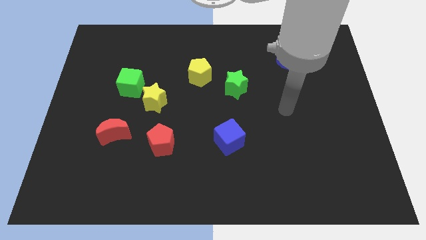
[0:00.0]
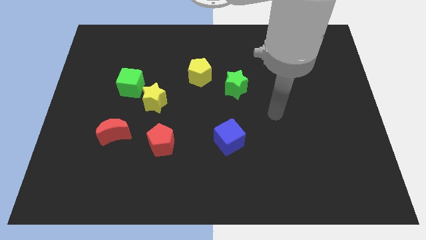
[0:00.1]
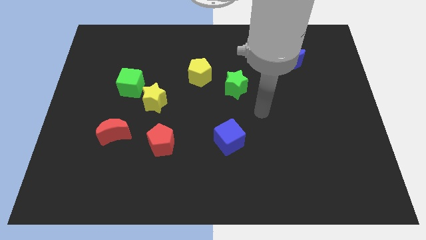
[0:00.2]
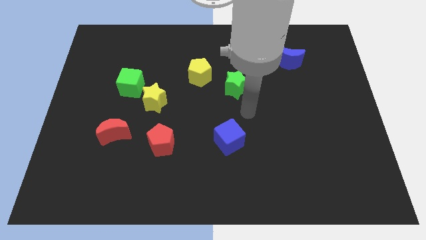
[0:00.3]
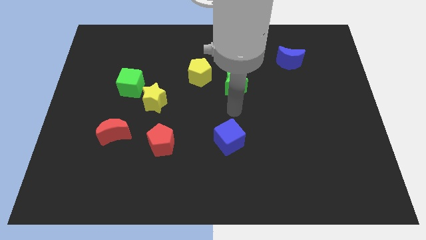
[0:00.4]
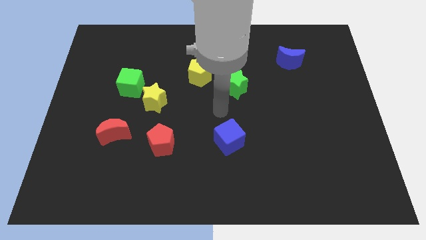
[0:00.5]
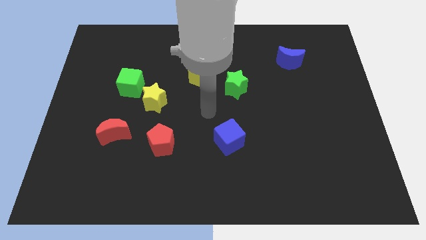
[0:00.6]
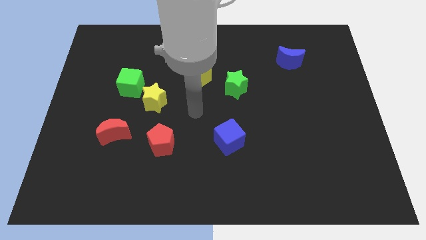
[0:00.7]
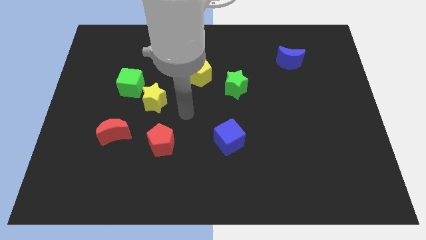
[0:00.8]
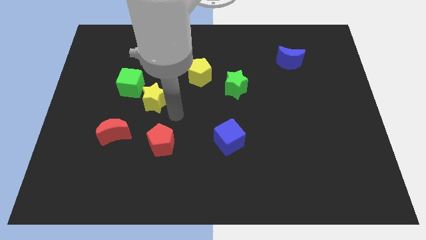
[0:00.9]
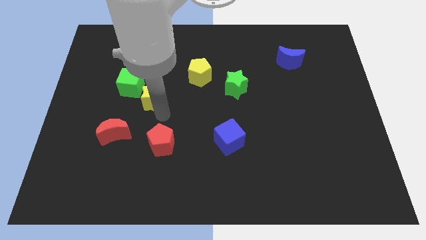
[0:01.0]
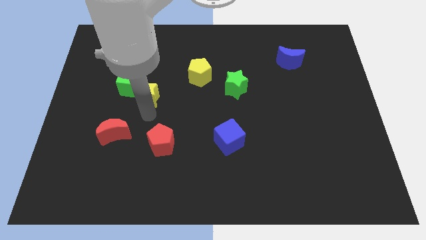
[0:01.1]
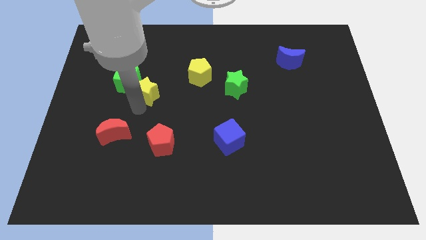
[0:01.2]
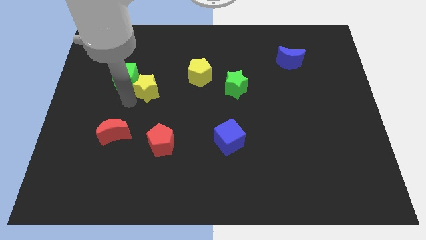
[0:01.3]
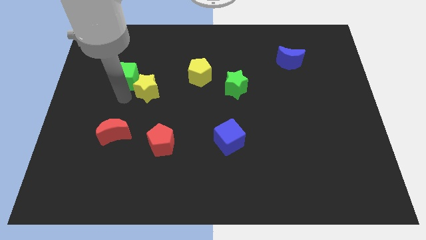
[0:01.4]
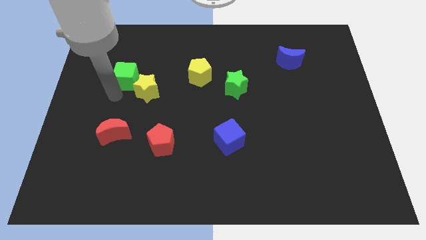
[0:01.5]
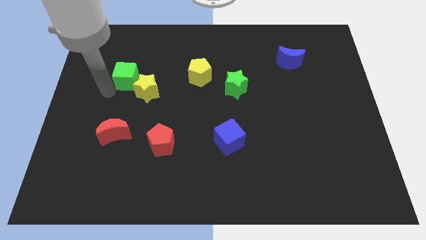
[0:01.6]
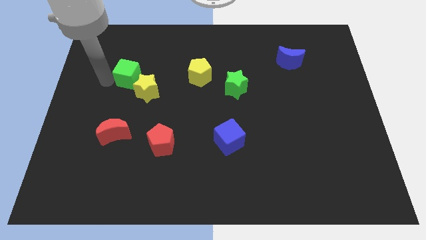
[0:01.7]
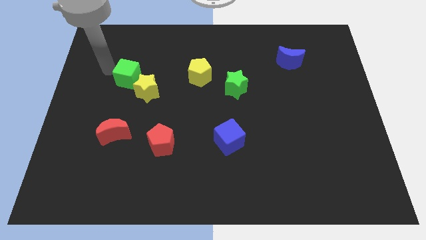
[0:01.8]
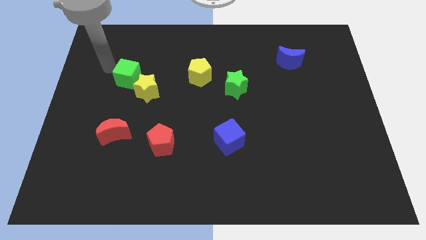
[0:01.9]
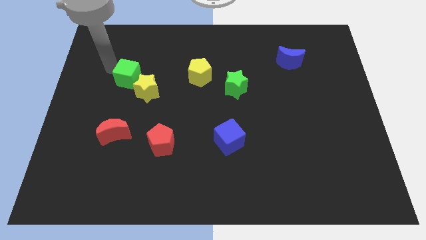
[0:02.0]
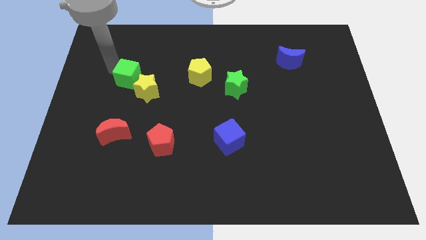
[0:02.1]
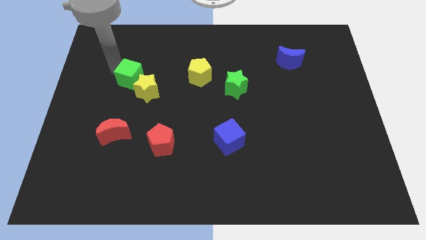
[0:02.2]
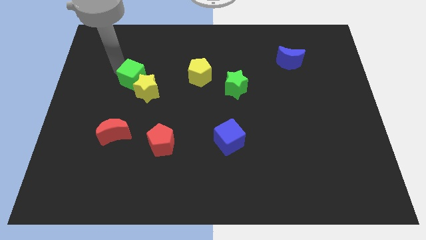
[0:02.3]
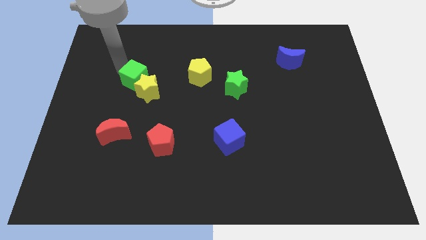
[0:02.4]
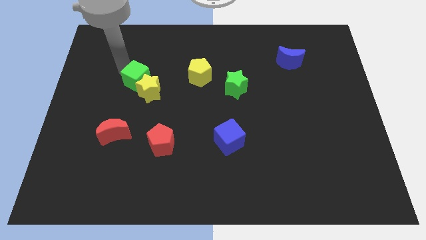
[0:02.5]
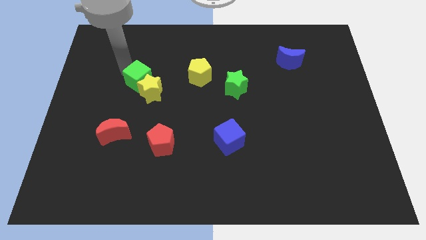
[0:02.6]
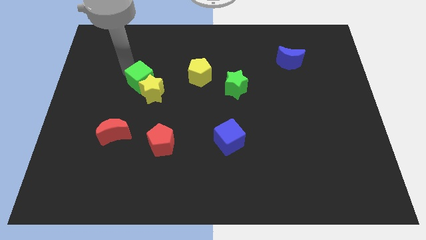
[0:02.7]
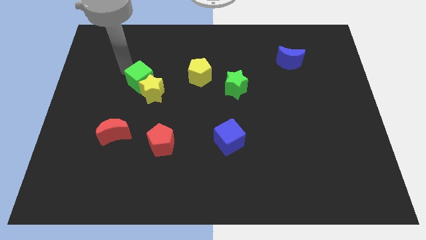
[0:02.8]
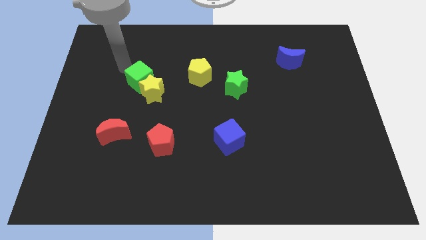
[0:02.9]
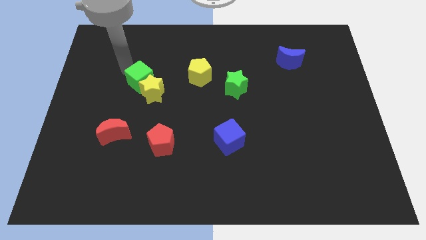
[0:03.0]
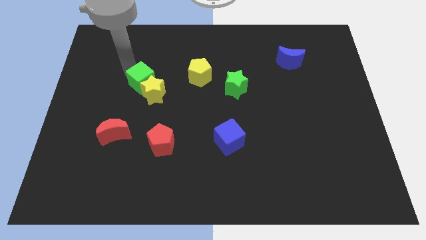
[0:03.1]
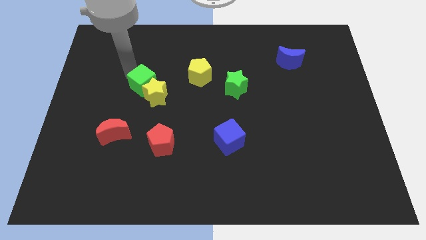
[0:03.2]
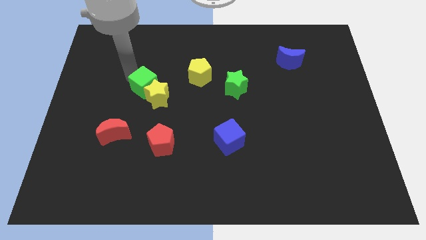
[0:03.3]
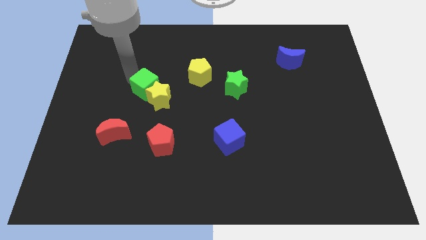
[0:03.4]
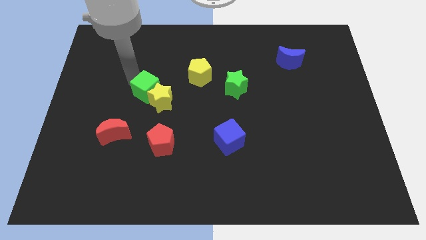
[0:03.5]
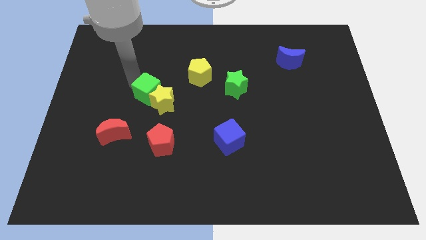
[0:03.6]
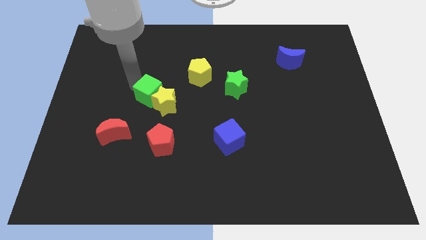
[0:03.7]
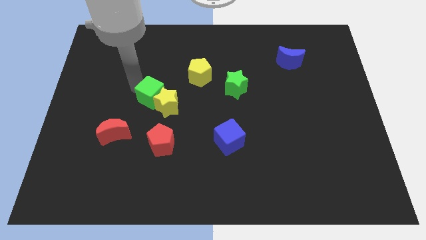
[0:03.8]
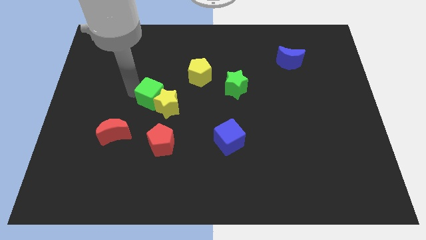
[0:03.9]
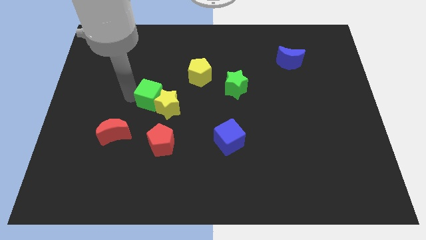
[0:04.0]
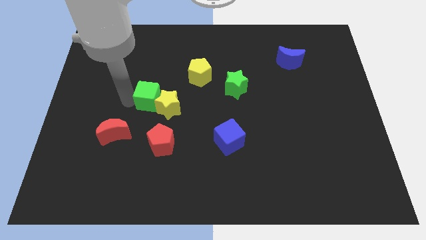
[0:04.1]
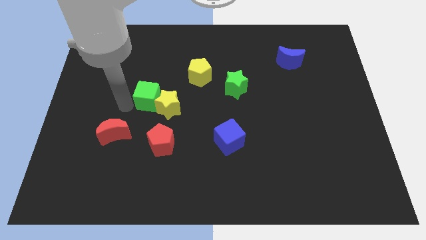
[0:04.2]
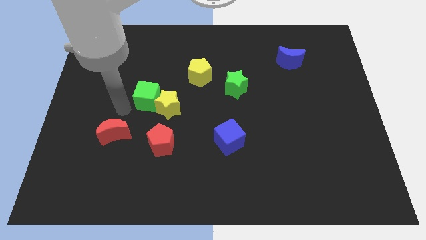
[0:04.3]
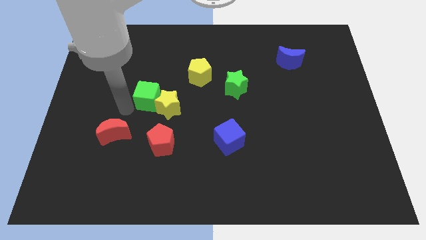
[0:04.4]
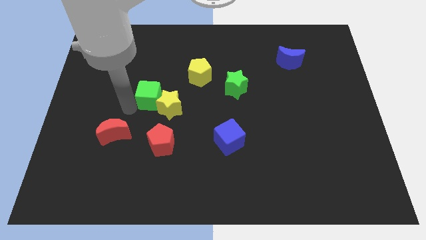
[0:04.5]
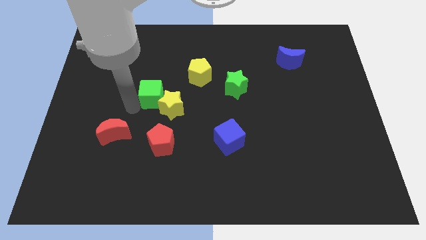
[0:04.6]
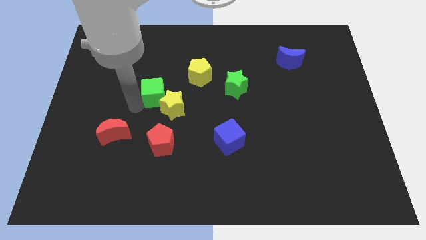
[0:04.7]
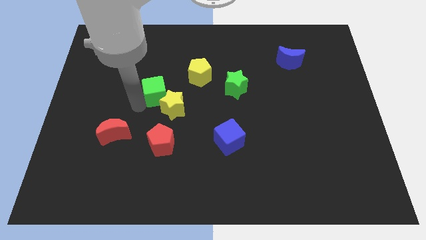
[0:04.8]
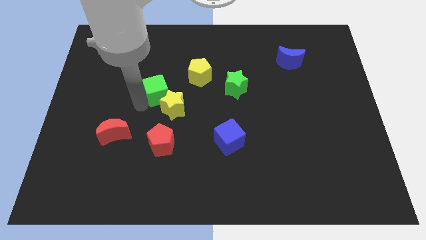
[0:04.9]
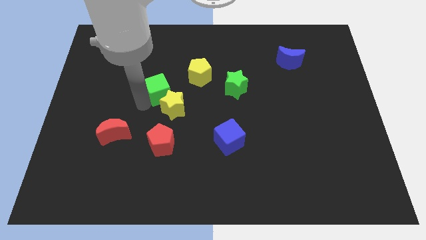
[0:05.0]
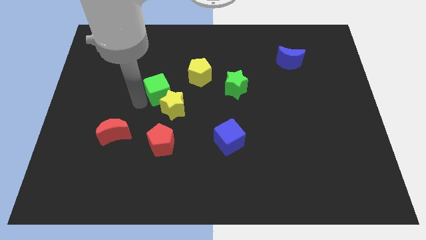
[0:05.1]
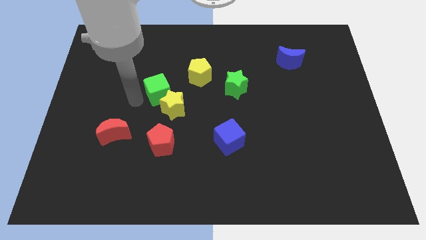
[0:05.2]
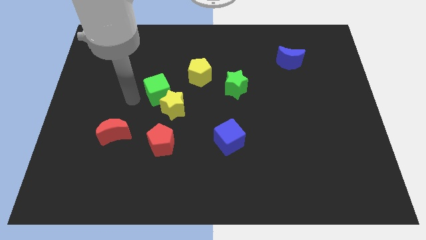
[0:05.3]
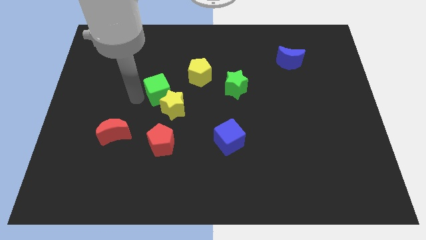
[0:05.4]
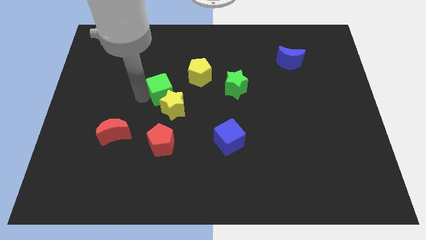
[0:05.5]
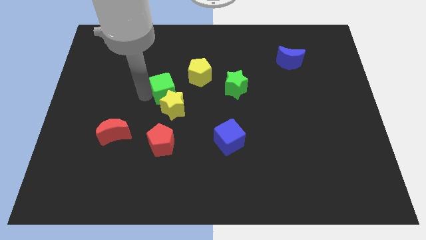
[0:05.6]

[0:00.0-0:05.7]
slide the green cube to the center of the board

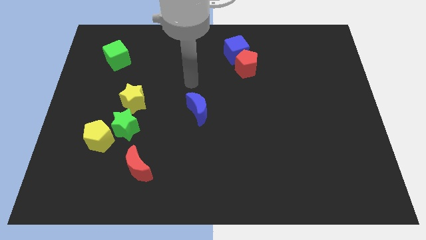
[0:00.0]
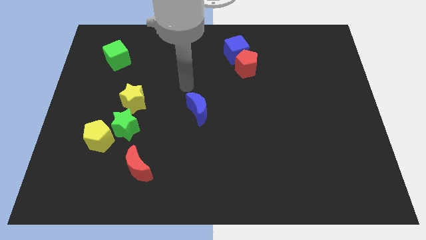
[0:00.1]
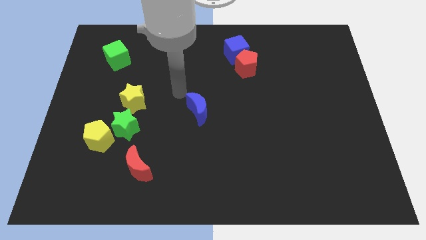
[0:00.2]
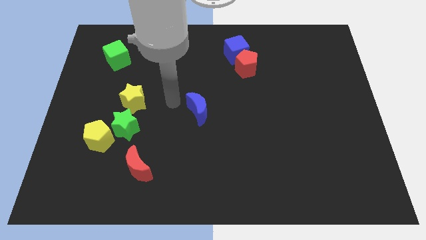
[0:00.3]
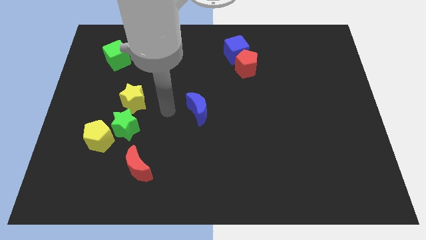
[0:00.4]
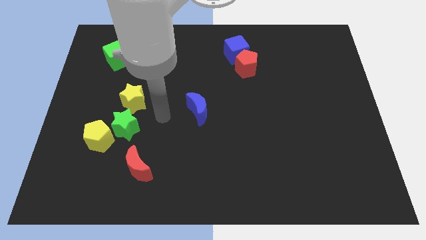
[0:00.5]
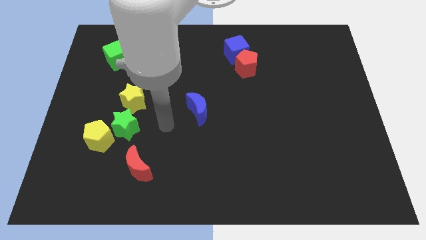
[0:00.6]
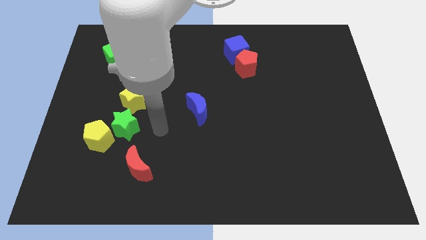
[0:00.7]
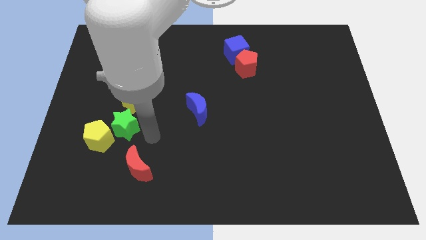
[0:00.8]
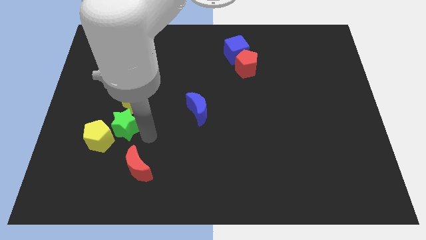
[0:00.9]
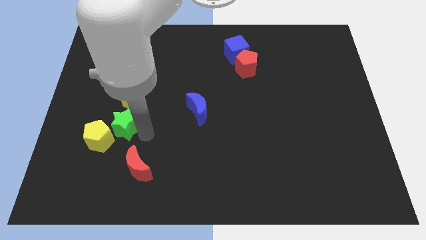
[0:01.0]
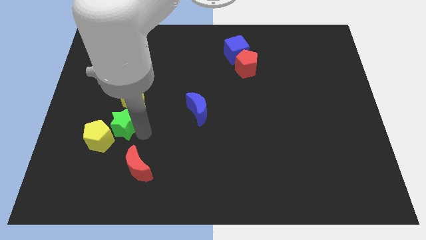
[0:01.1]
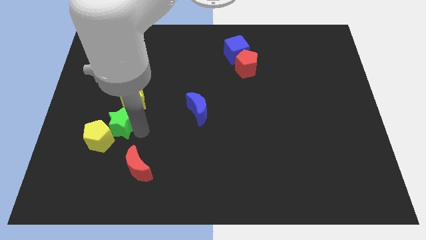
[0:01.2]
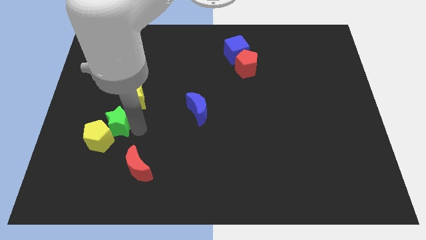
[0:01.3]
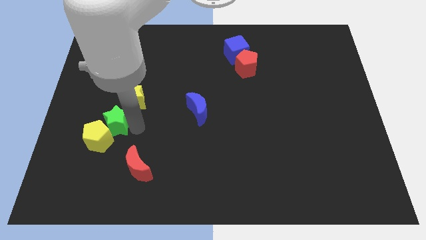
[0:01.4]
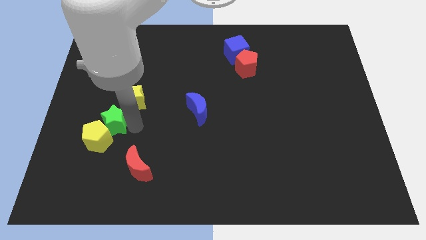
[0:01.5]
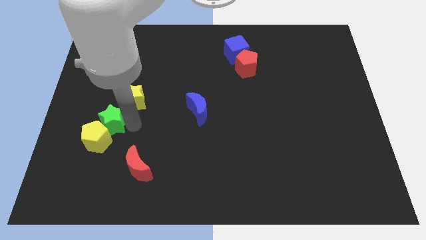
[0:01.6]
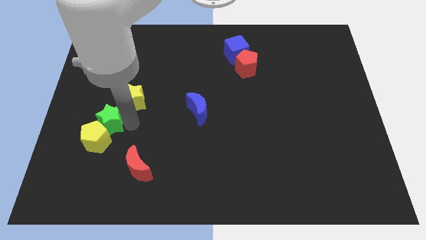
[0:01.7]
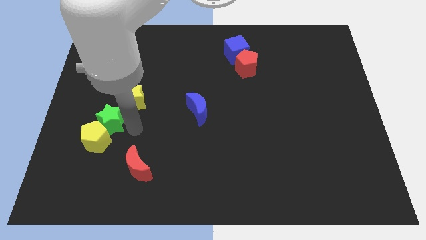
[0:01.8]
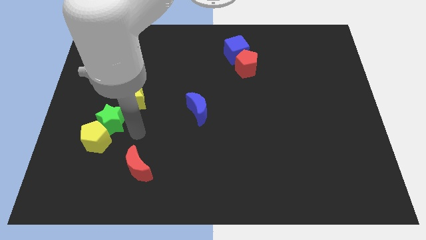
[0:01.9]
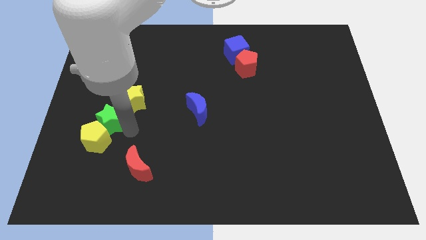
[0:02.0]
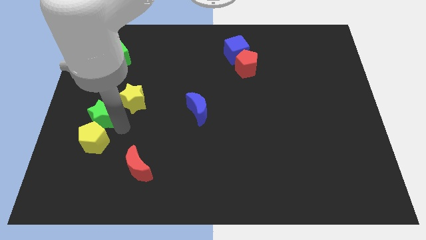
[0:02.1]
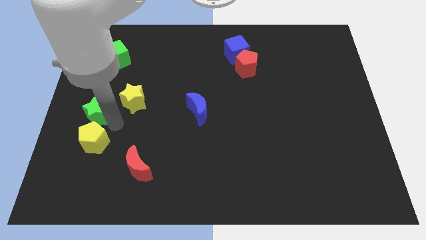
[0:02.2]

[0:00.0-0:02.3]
put the green star to the center left
